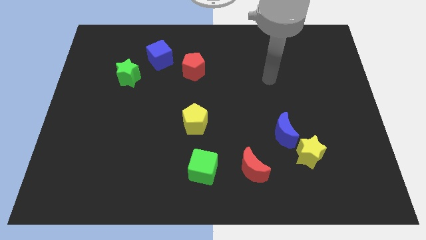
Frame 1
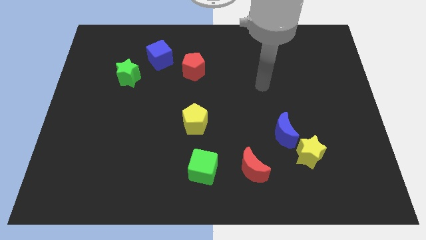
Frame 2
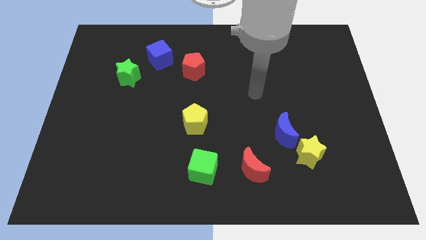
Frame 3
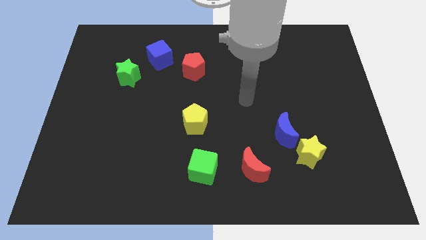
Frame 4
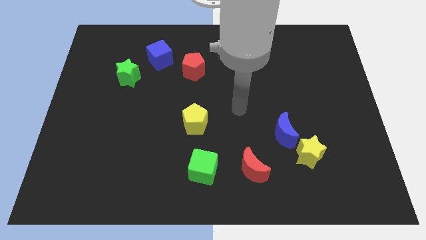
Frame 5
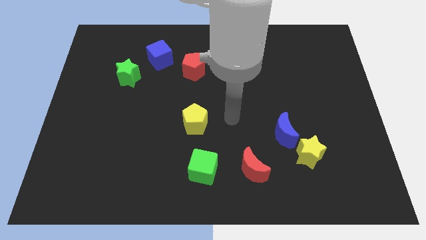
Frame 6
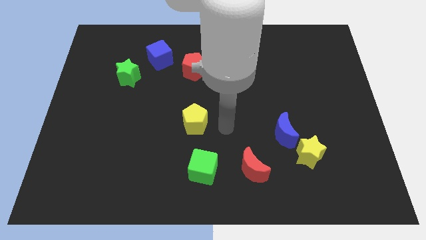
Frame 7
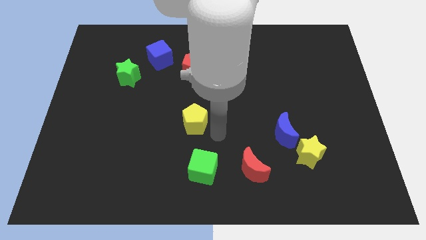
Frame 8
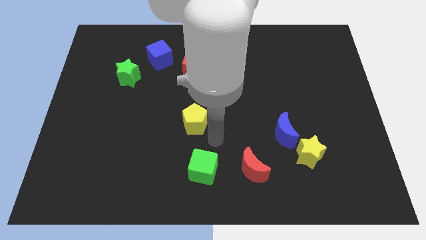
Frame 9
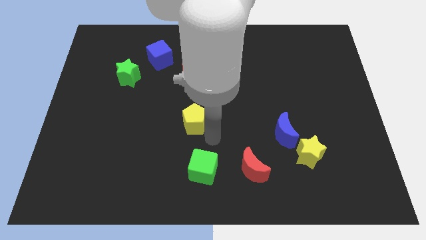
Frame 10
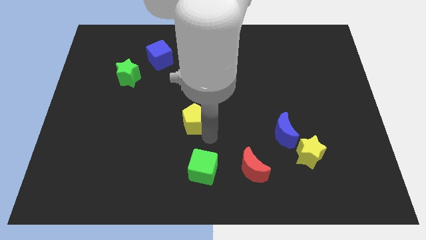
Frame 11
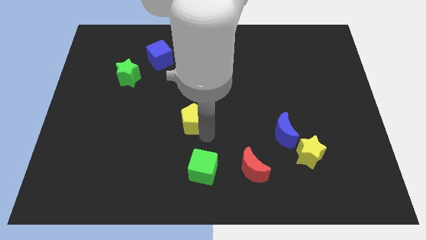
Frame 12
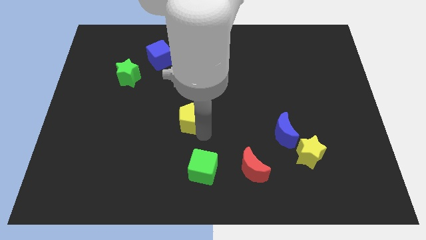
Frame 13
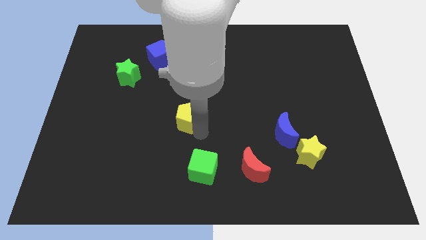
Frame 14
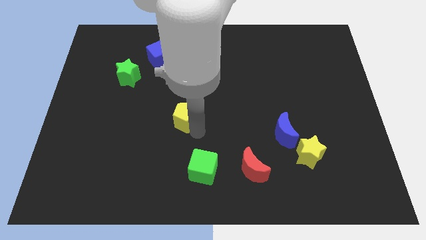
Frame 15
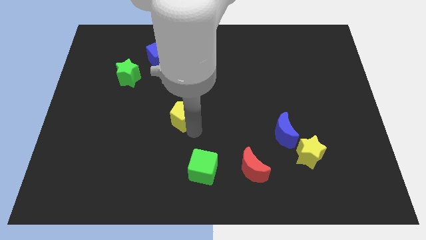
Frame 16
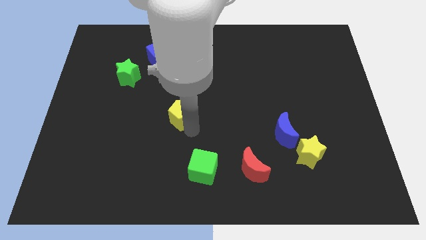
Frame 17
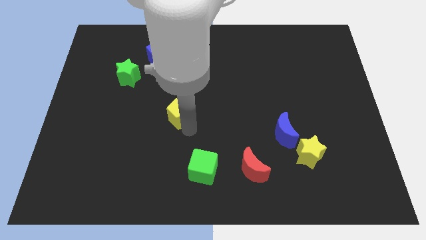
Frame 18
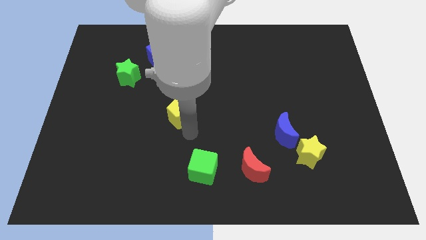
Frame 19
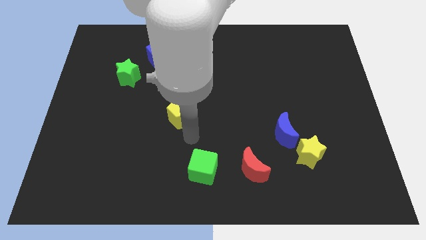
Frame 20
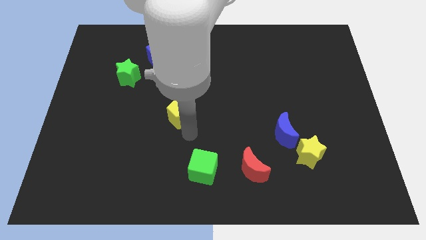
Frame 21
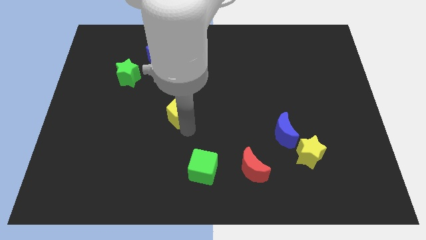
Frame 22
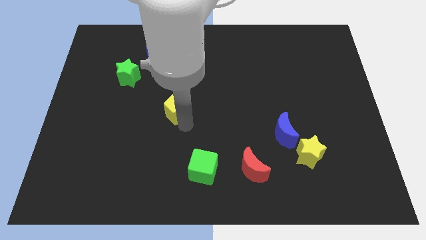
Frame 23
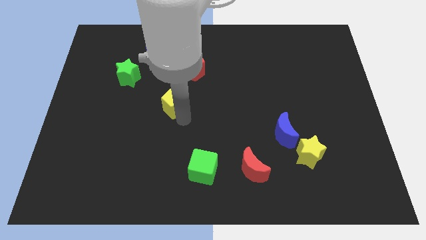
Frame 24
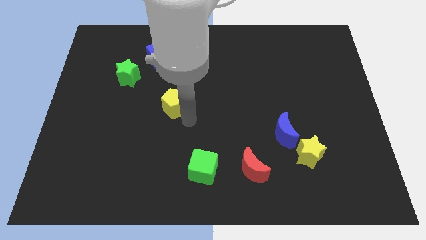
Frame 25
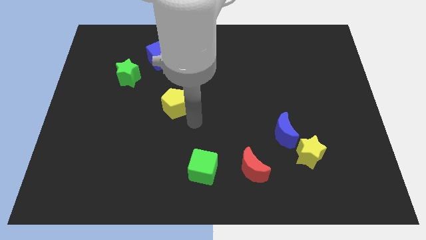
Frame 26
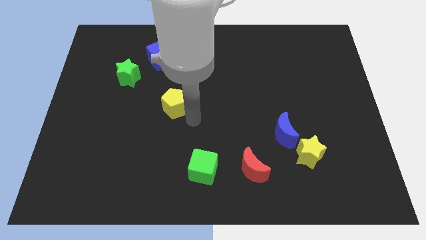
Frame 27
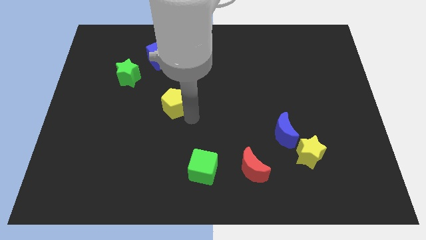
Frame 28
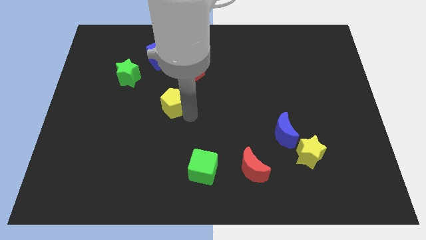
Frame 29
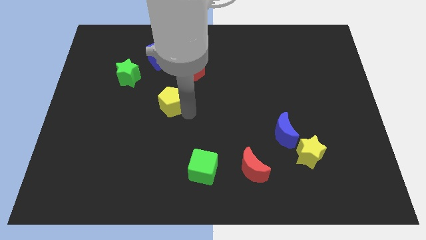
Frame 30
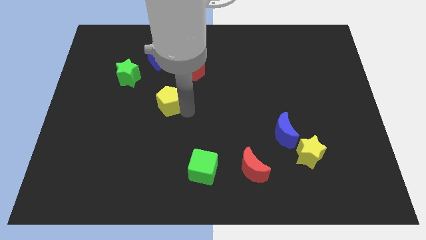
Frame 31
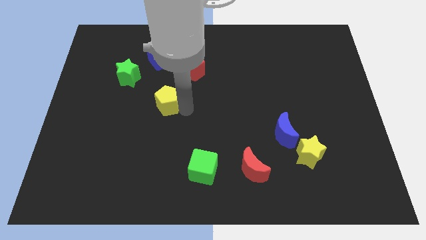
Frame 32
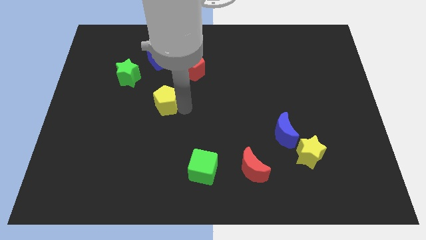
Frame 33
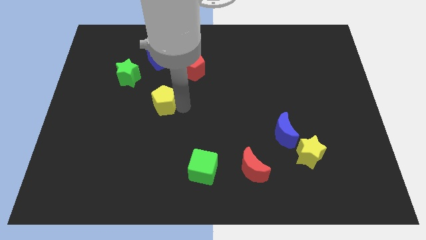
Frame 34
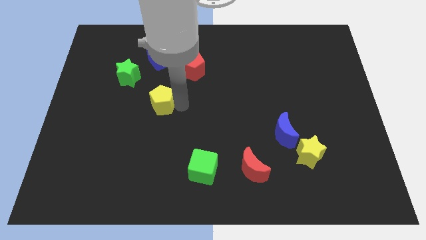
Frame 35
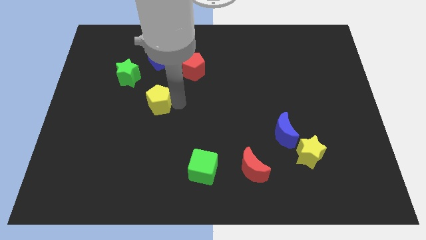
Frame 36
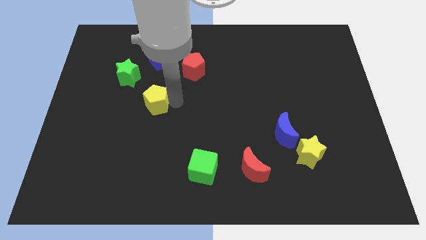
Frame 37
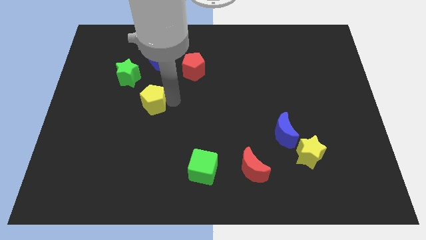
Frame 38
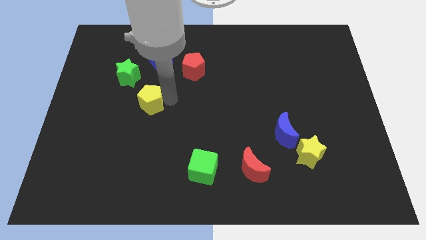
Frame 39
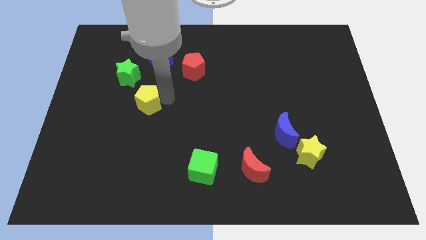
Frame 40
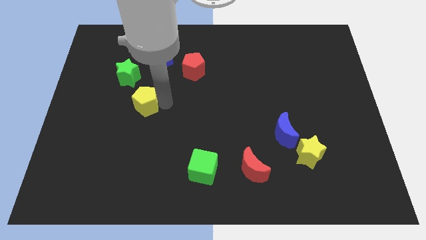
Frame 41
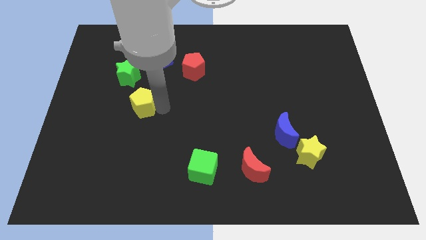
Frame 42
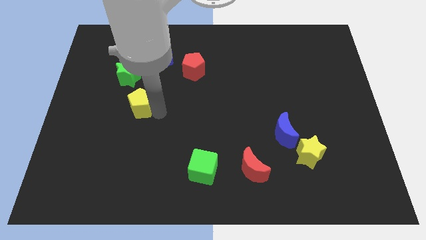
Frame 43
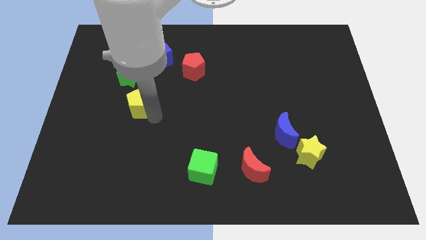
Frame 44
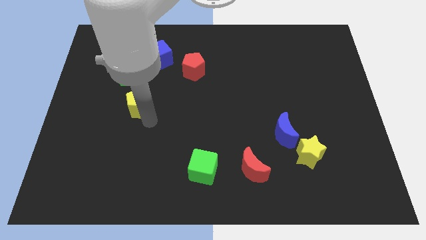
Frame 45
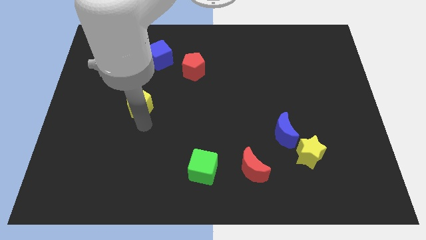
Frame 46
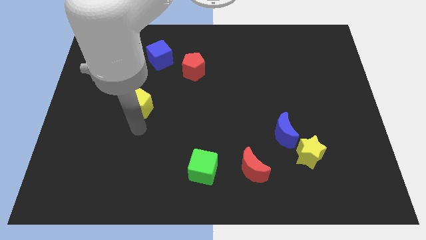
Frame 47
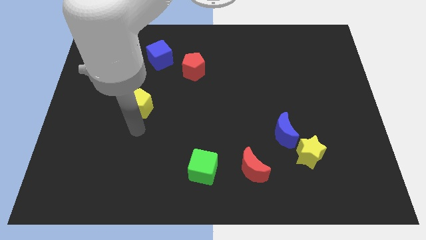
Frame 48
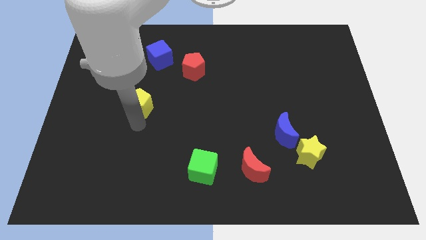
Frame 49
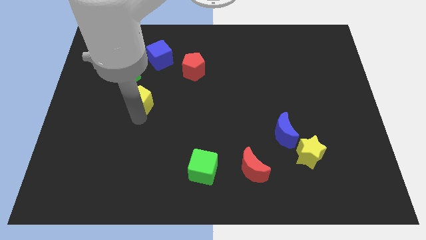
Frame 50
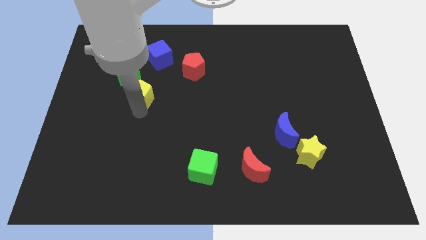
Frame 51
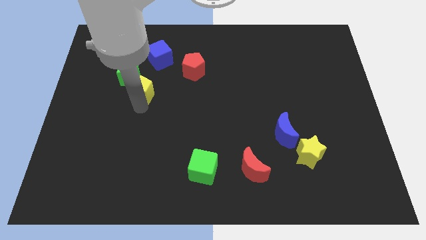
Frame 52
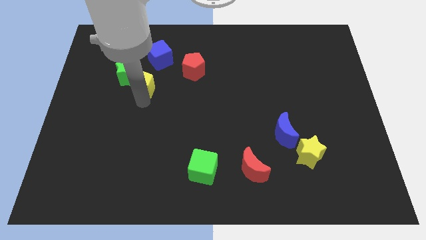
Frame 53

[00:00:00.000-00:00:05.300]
push the yellow pentagon to the green star

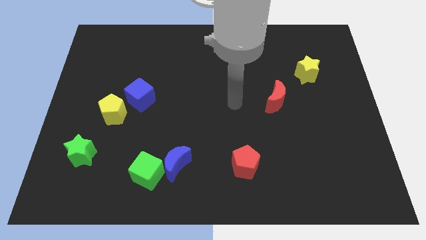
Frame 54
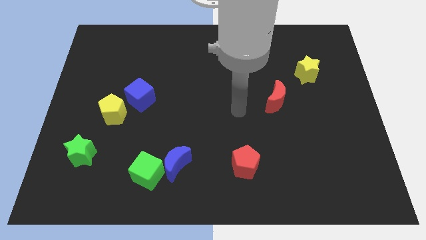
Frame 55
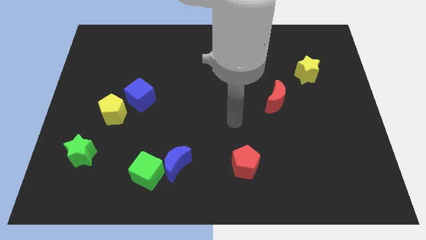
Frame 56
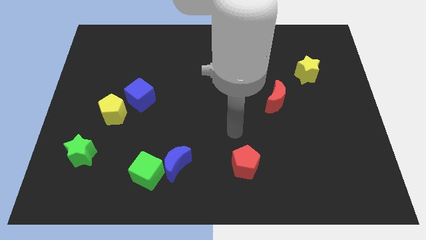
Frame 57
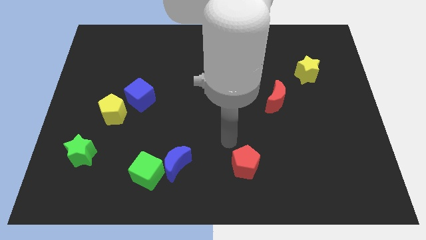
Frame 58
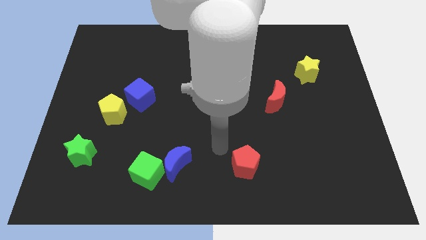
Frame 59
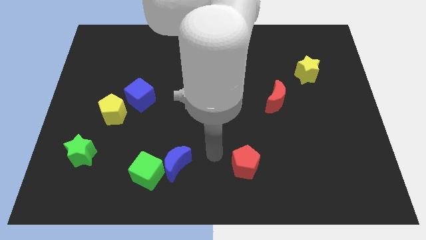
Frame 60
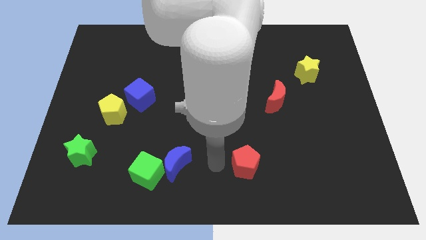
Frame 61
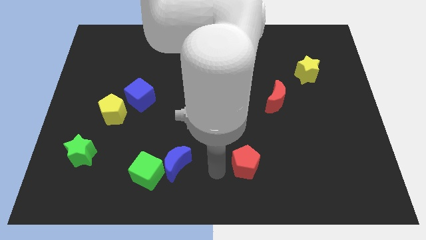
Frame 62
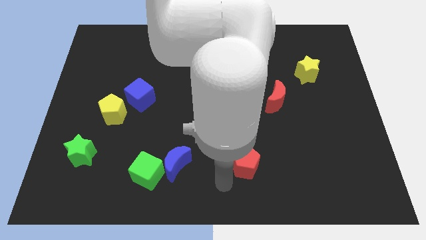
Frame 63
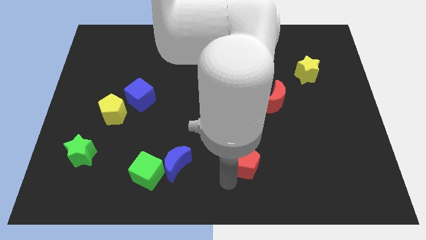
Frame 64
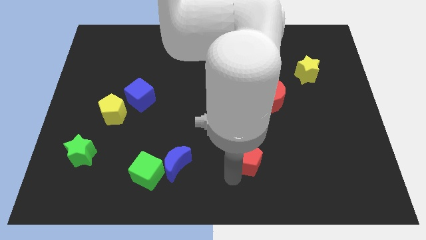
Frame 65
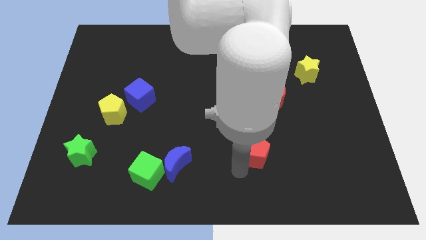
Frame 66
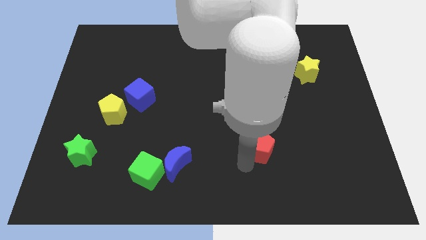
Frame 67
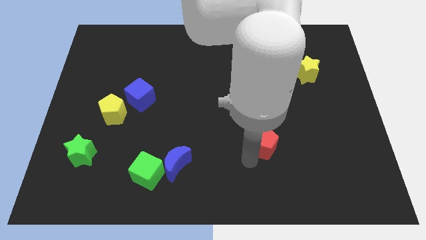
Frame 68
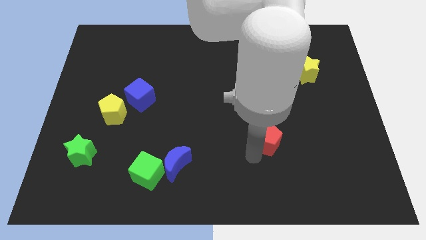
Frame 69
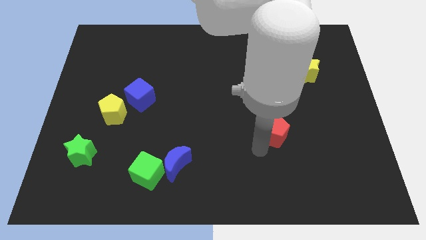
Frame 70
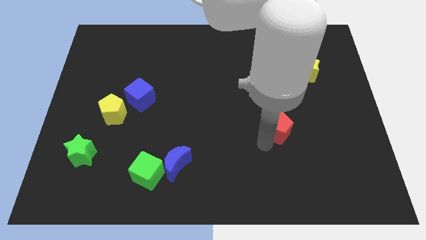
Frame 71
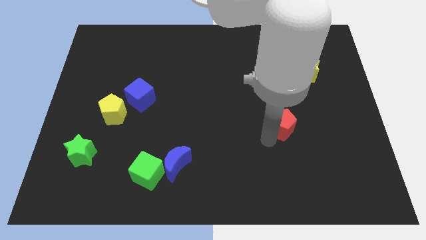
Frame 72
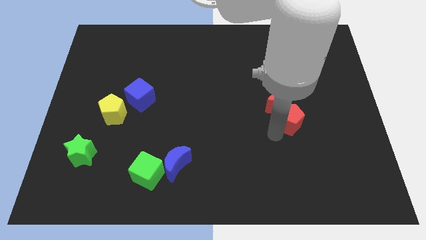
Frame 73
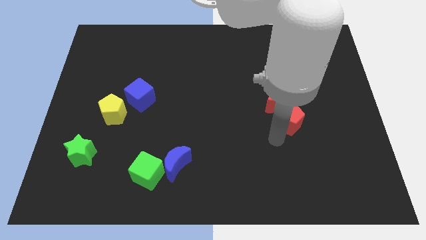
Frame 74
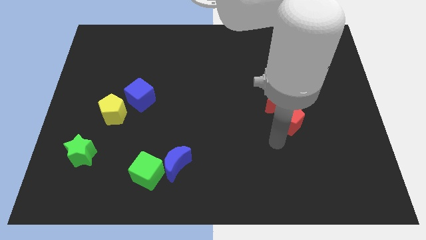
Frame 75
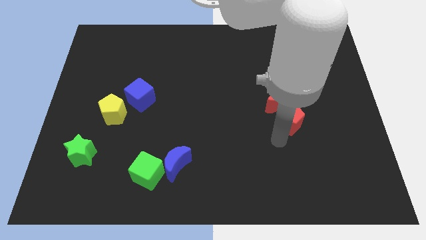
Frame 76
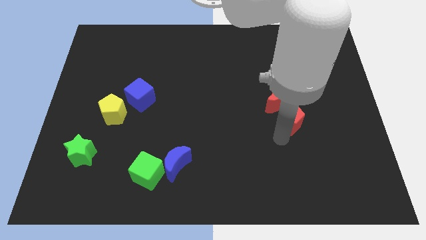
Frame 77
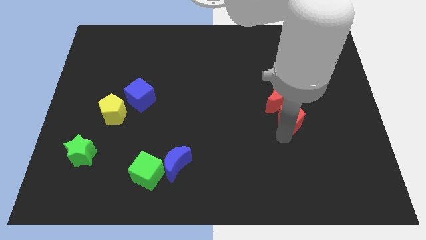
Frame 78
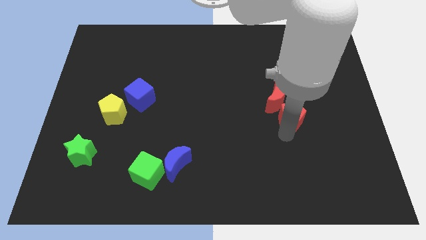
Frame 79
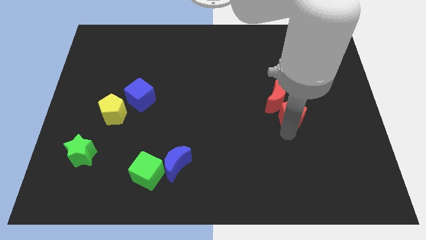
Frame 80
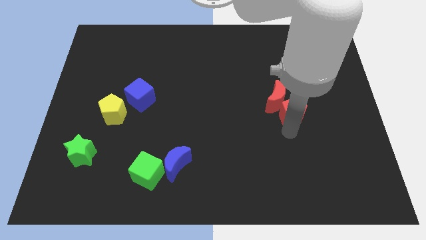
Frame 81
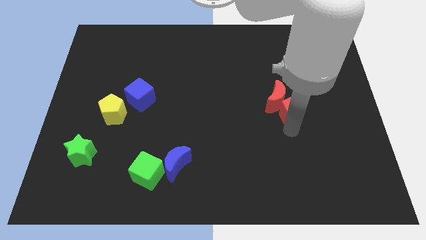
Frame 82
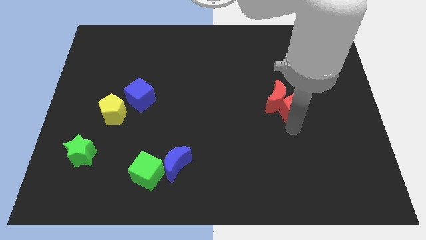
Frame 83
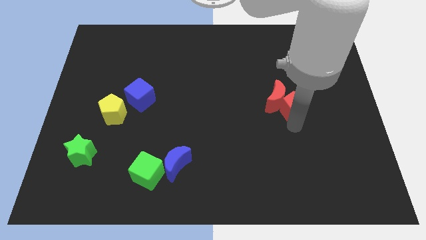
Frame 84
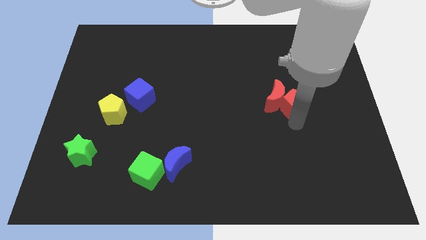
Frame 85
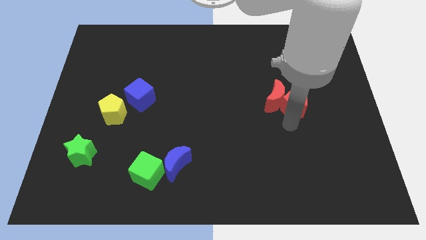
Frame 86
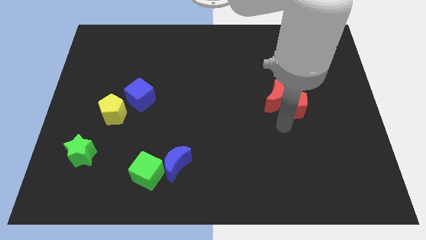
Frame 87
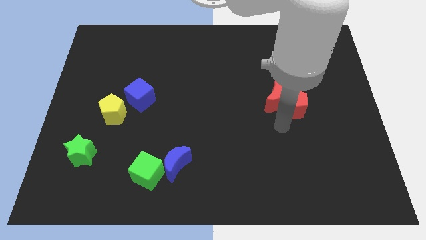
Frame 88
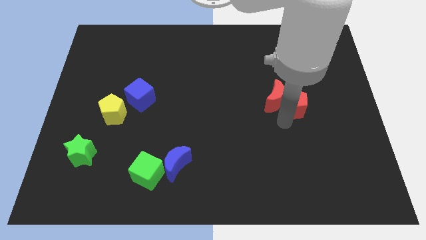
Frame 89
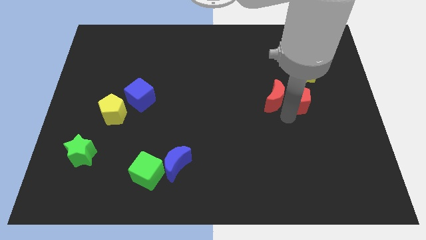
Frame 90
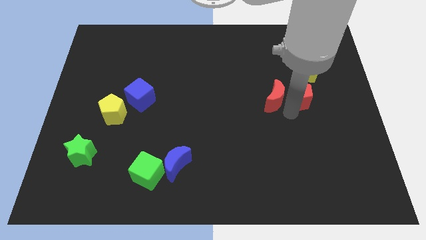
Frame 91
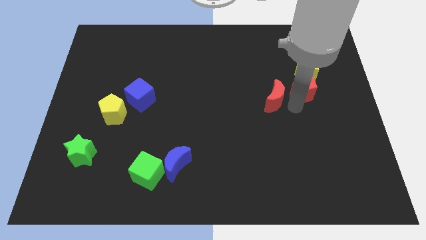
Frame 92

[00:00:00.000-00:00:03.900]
move the red pentagon to the yellow star
